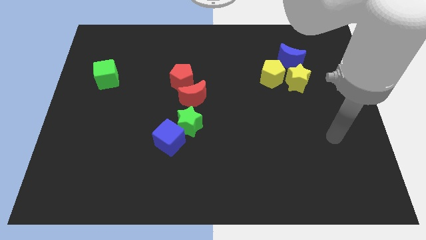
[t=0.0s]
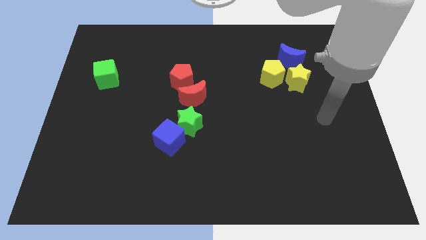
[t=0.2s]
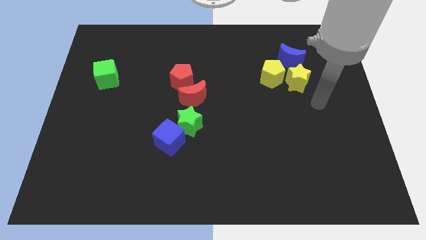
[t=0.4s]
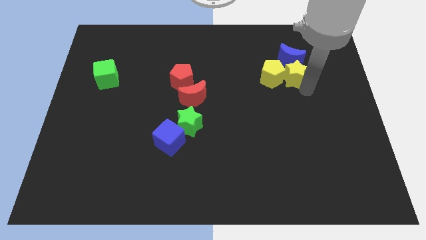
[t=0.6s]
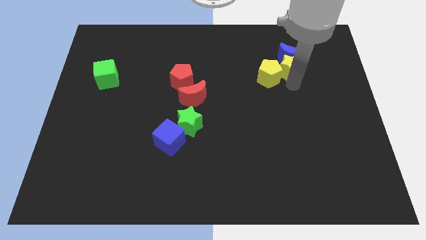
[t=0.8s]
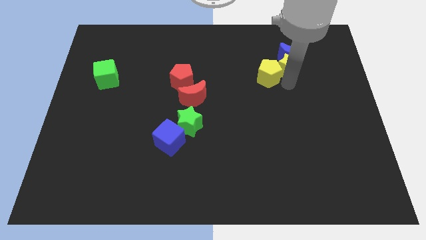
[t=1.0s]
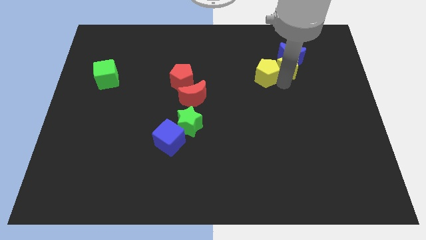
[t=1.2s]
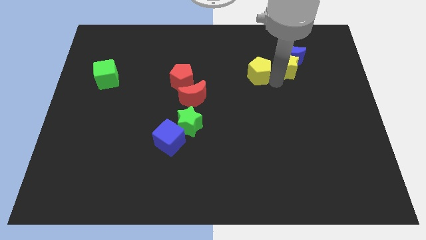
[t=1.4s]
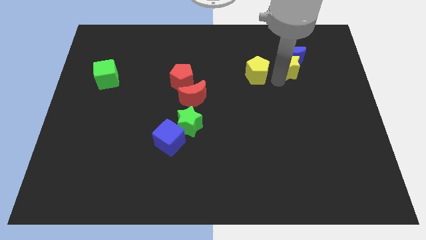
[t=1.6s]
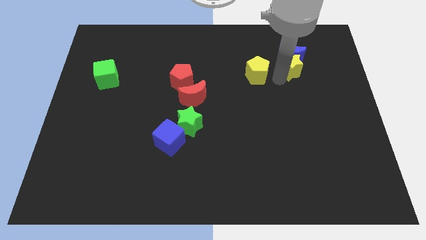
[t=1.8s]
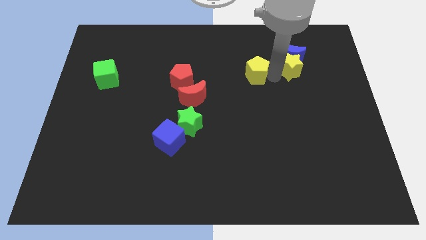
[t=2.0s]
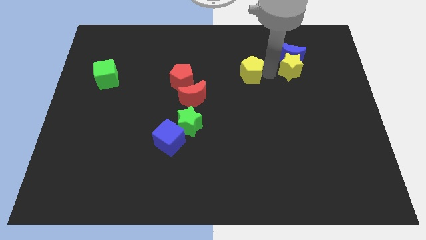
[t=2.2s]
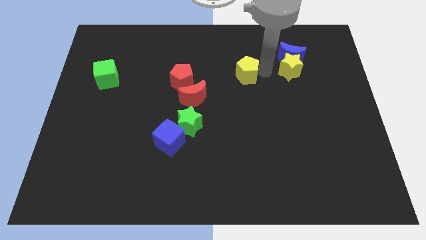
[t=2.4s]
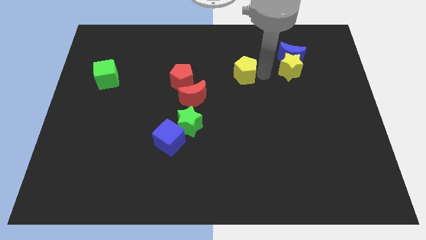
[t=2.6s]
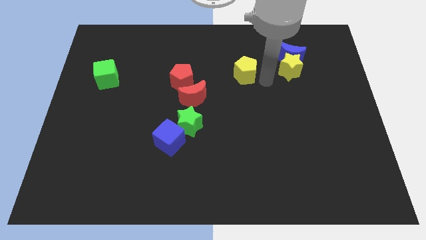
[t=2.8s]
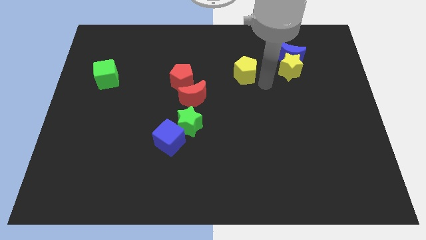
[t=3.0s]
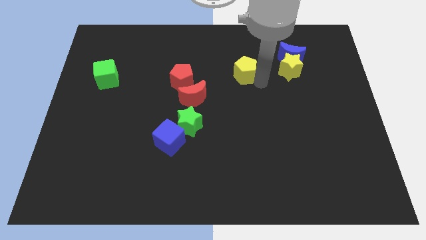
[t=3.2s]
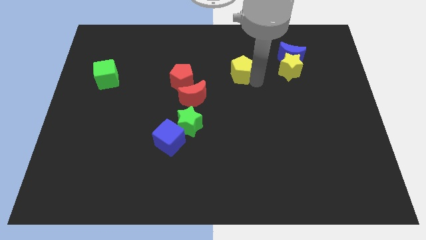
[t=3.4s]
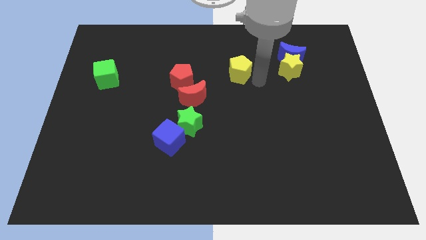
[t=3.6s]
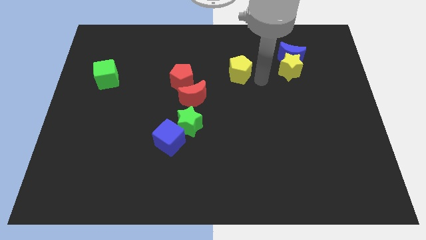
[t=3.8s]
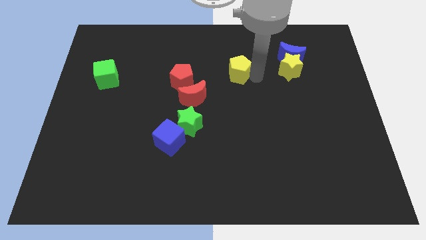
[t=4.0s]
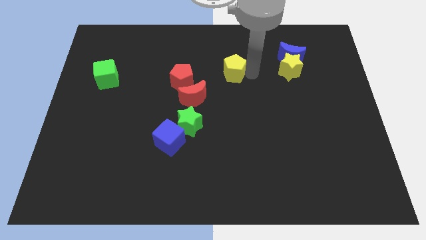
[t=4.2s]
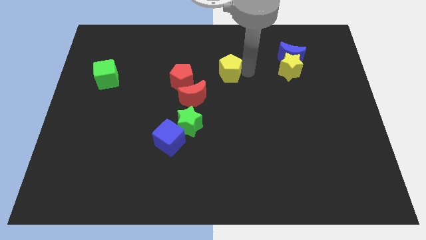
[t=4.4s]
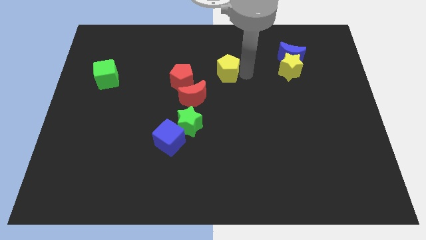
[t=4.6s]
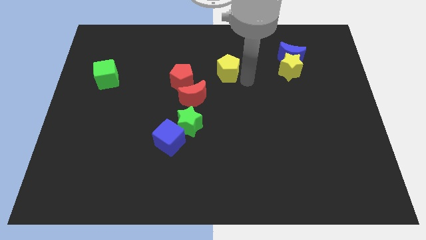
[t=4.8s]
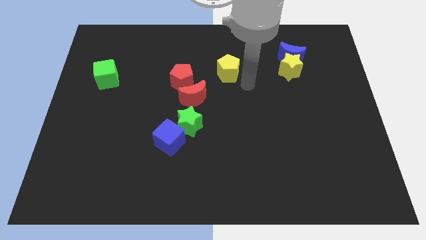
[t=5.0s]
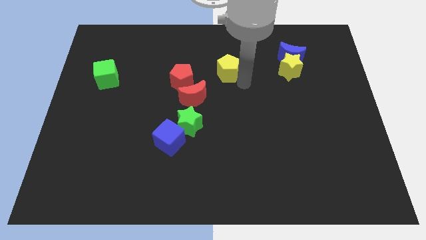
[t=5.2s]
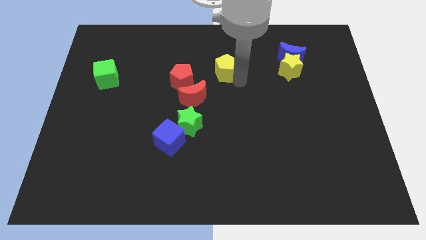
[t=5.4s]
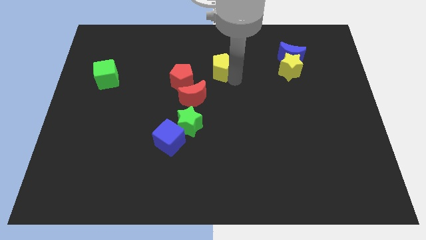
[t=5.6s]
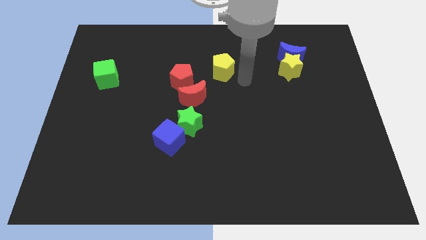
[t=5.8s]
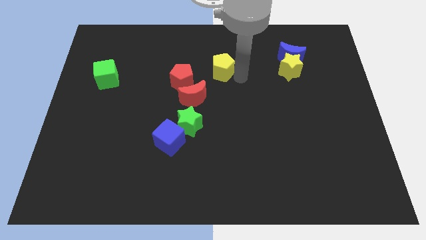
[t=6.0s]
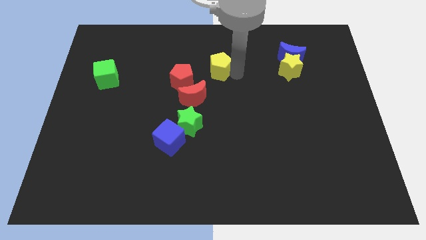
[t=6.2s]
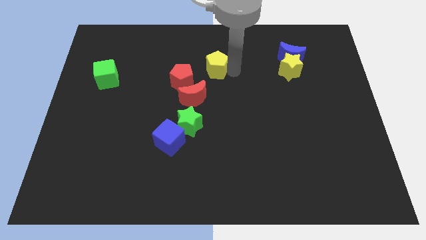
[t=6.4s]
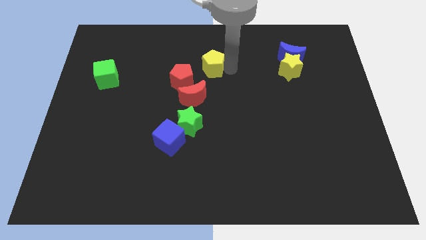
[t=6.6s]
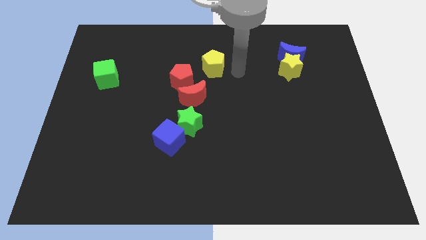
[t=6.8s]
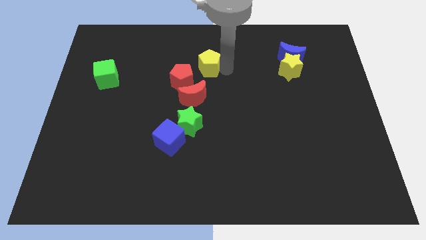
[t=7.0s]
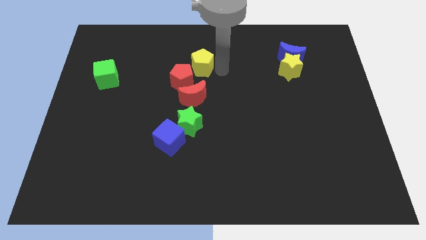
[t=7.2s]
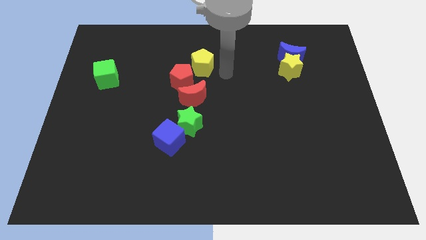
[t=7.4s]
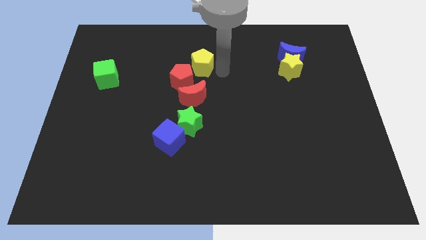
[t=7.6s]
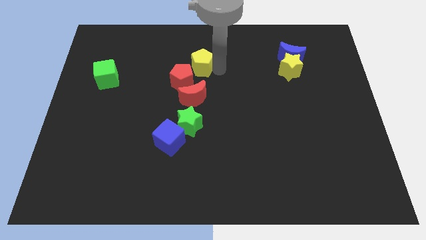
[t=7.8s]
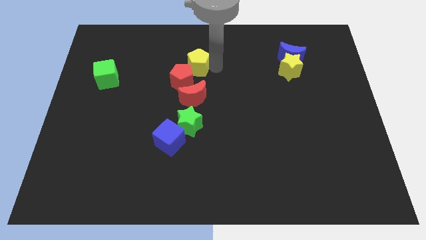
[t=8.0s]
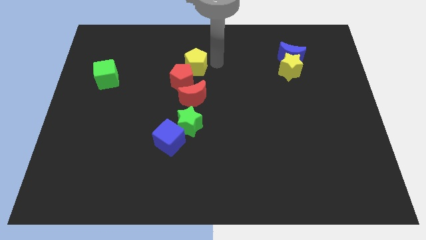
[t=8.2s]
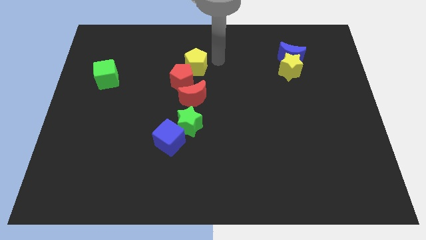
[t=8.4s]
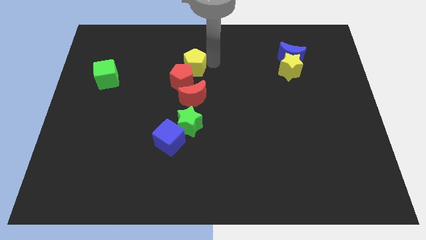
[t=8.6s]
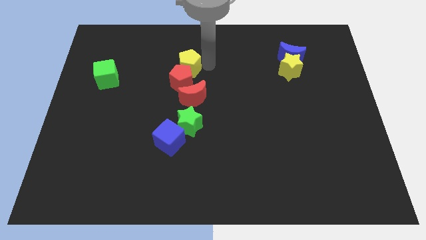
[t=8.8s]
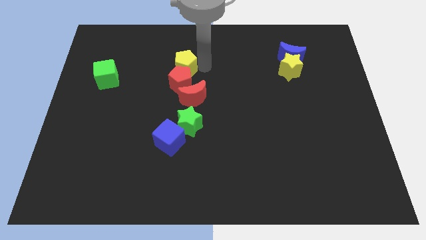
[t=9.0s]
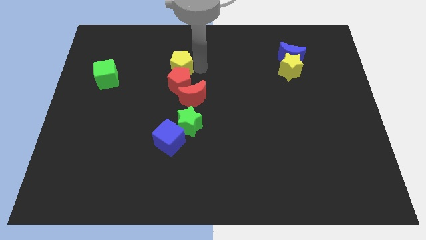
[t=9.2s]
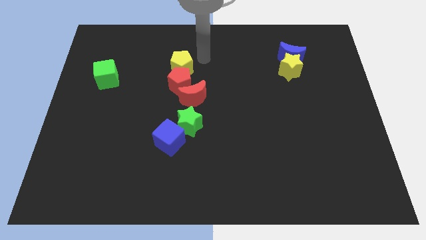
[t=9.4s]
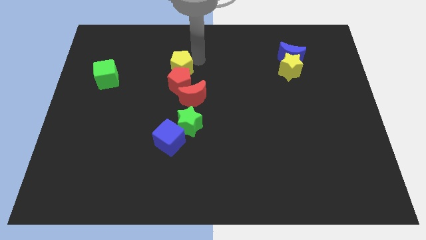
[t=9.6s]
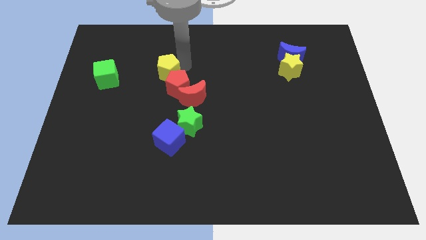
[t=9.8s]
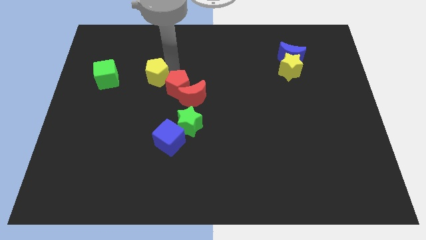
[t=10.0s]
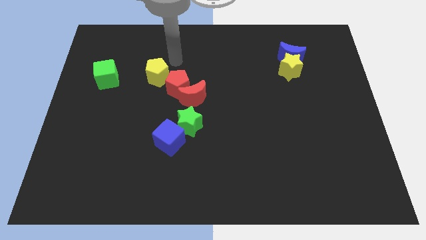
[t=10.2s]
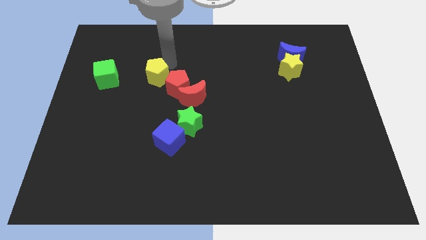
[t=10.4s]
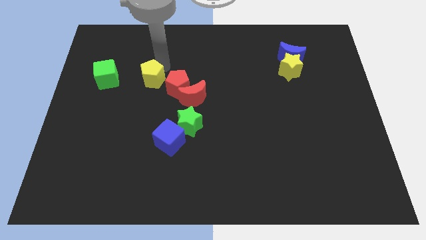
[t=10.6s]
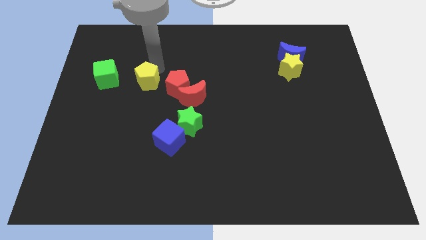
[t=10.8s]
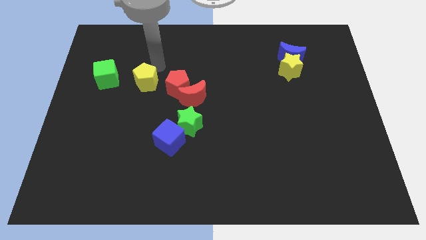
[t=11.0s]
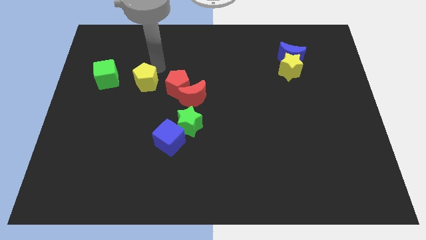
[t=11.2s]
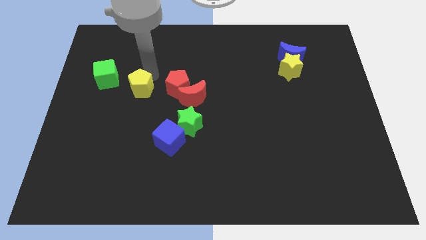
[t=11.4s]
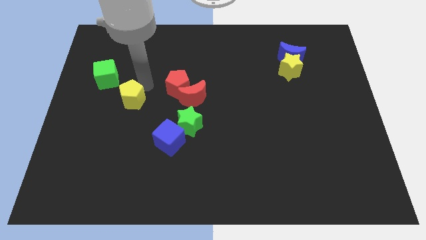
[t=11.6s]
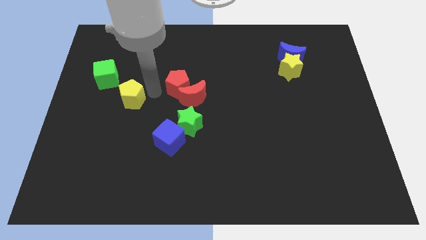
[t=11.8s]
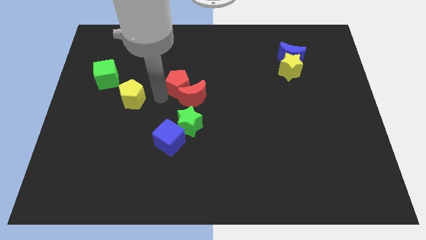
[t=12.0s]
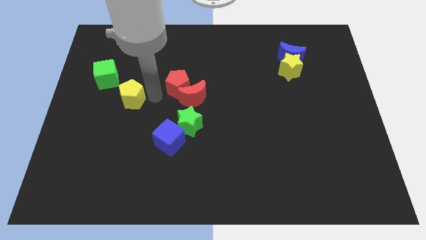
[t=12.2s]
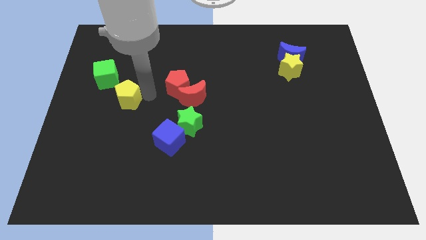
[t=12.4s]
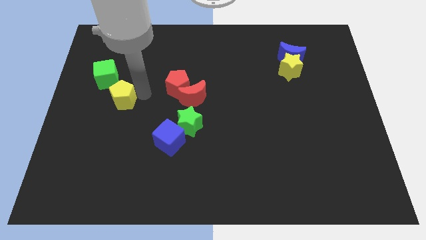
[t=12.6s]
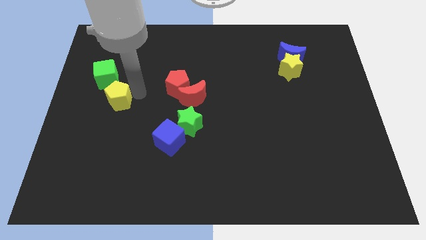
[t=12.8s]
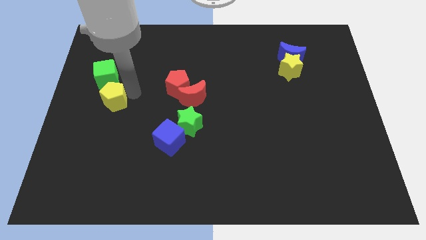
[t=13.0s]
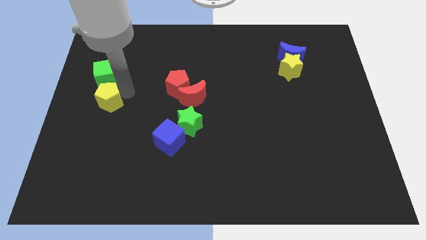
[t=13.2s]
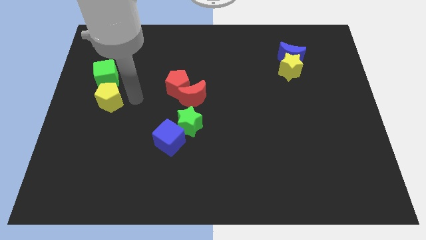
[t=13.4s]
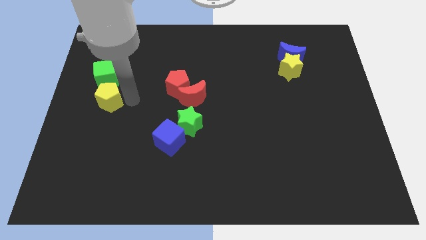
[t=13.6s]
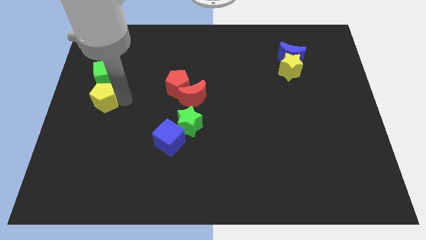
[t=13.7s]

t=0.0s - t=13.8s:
slide the yellow pentagon to the left side
